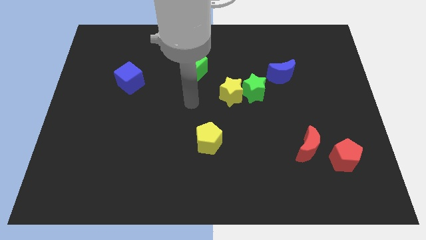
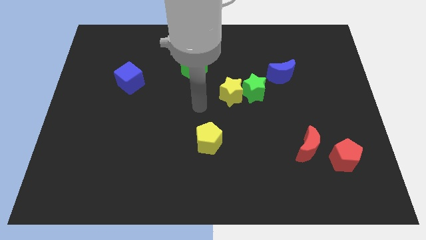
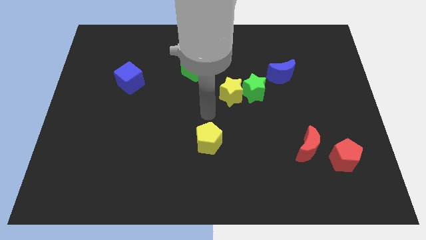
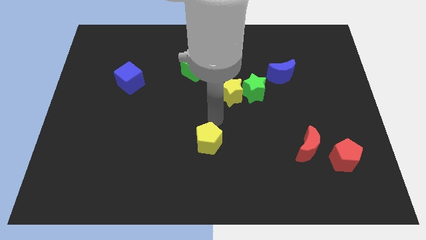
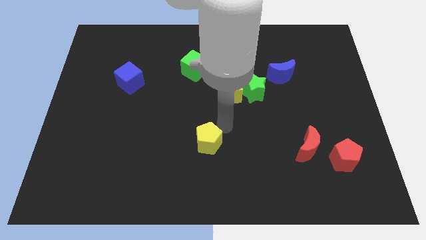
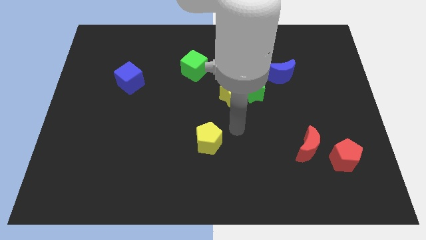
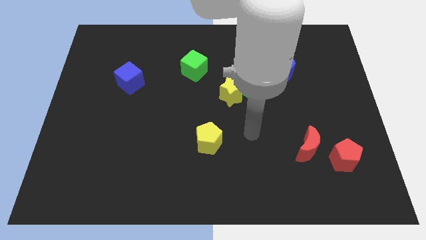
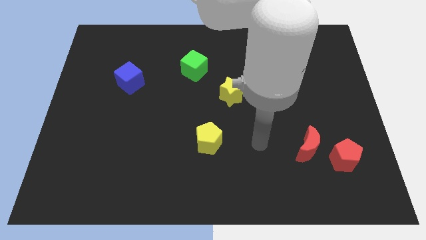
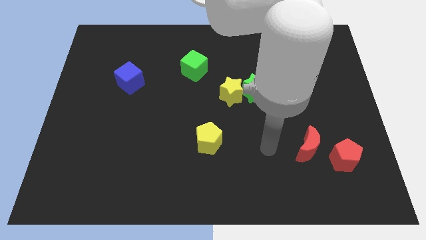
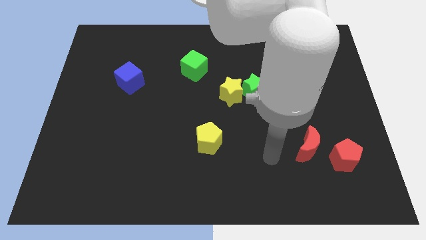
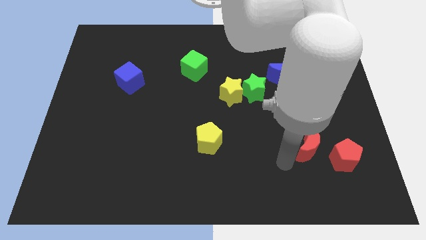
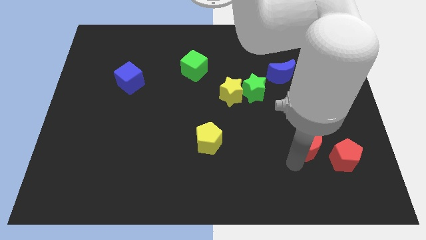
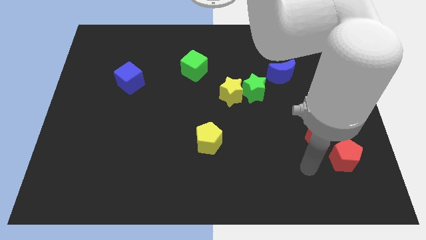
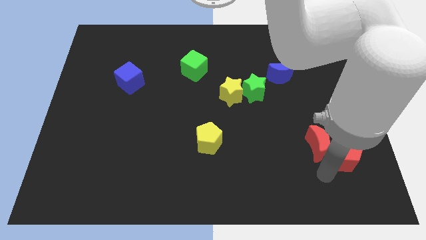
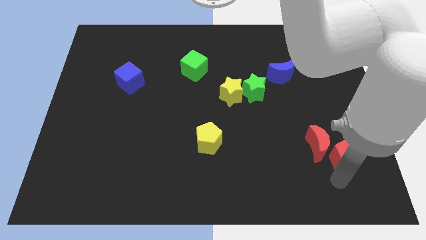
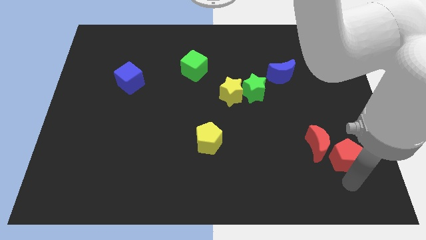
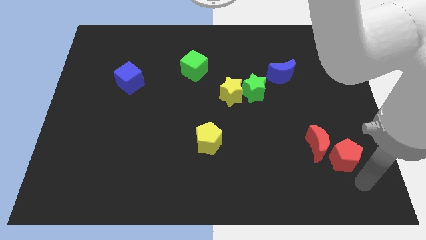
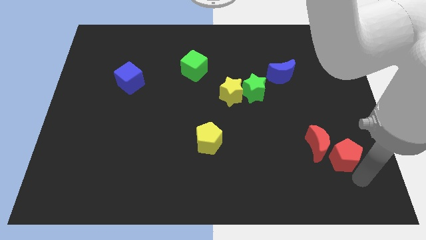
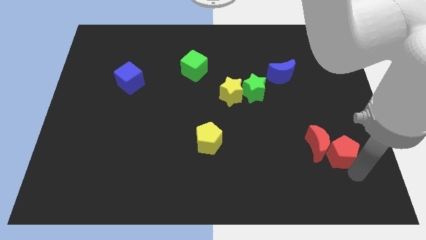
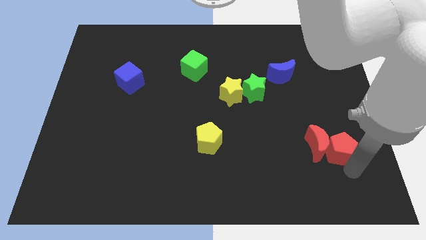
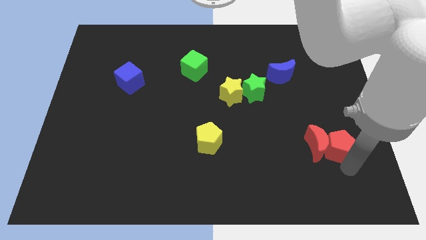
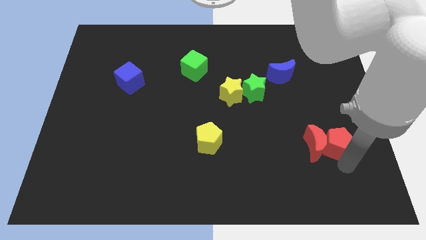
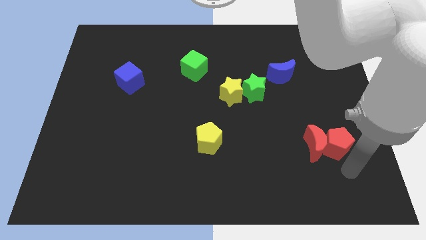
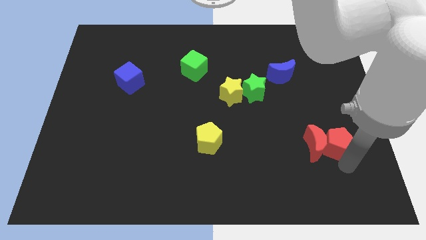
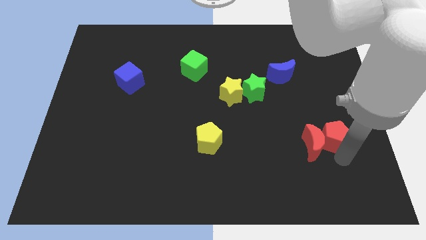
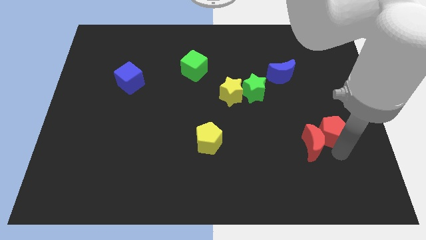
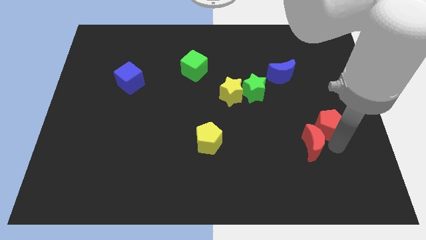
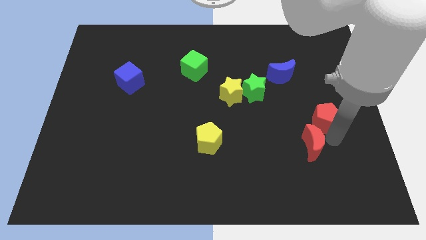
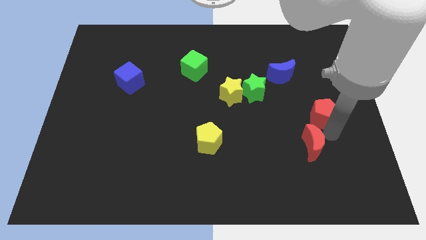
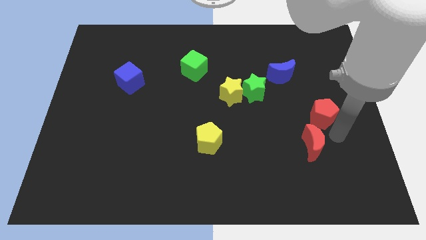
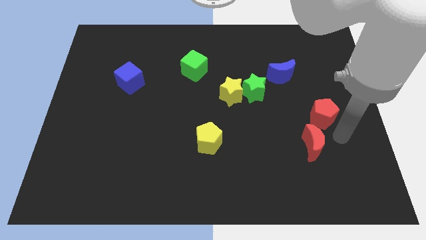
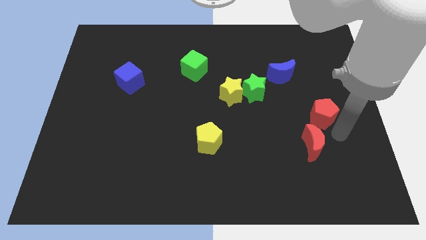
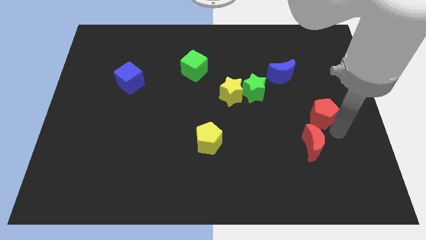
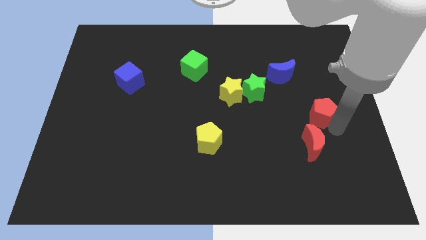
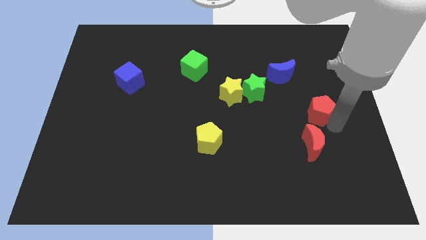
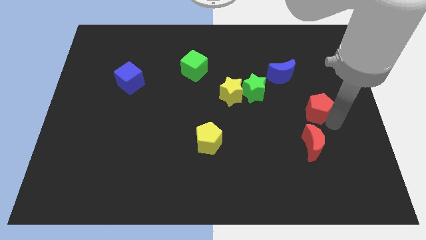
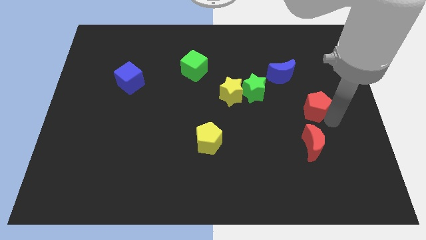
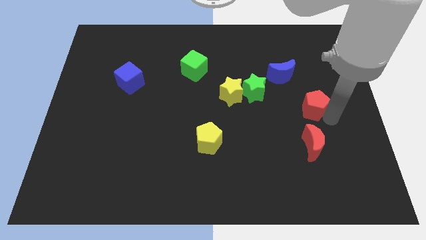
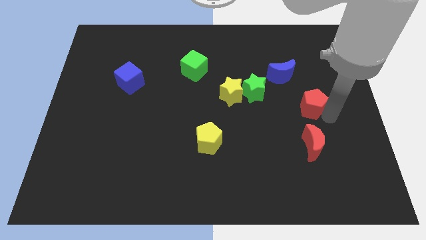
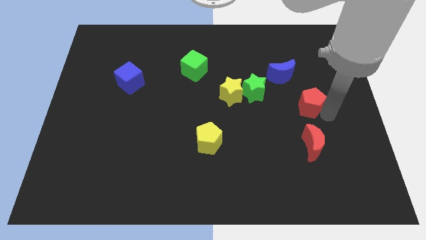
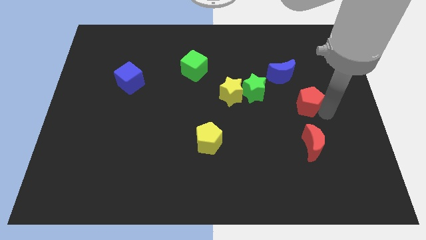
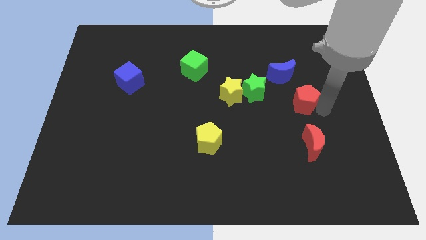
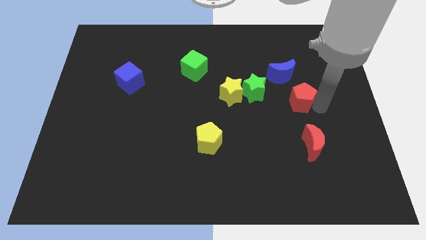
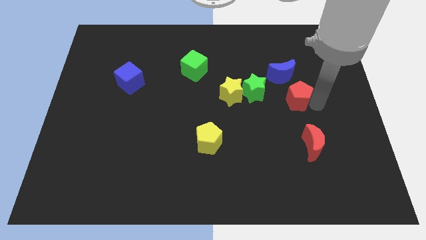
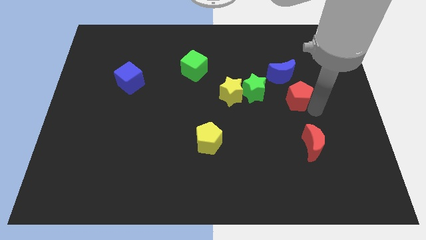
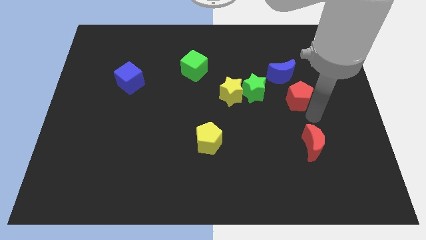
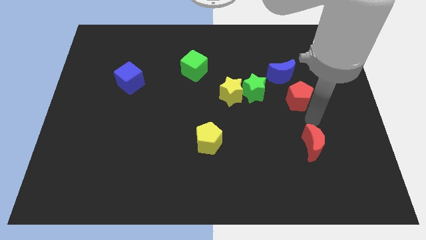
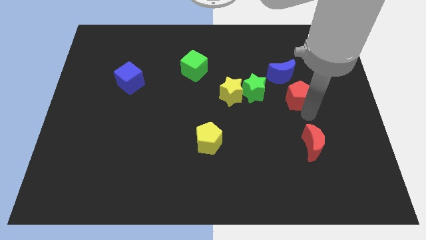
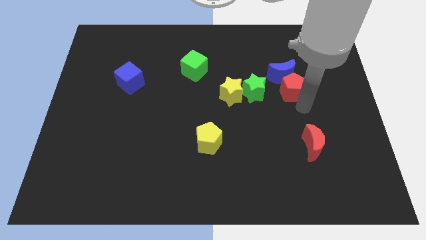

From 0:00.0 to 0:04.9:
put the red pentagon to the blue moon

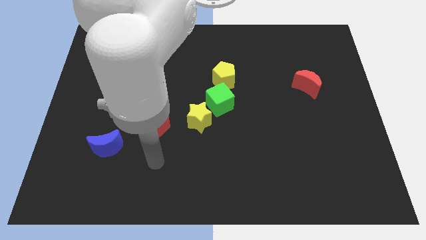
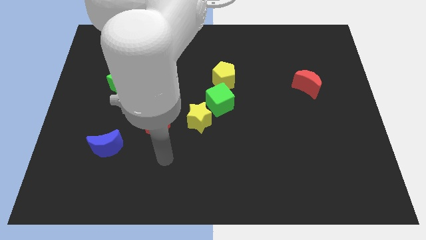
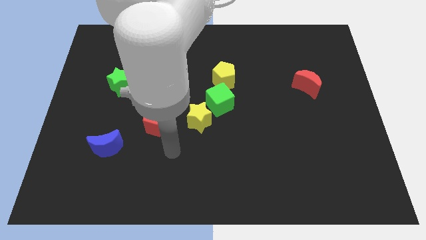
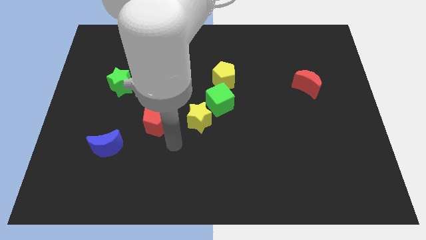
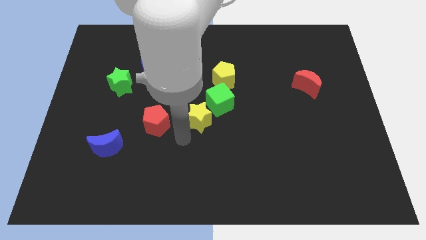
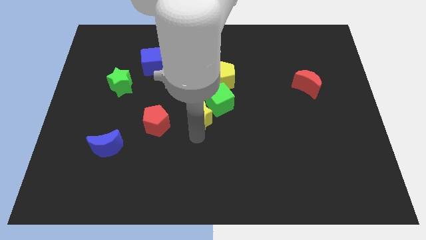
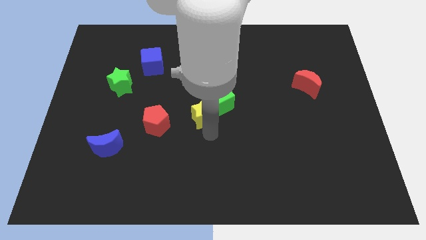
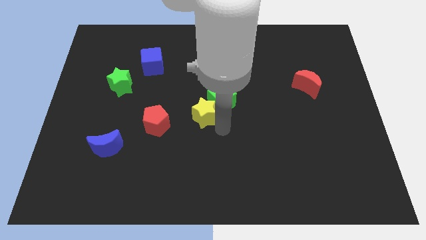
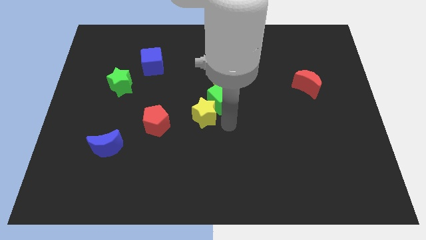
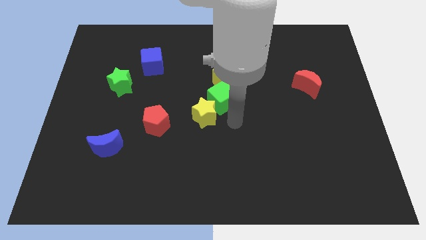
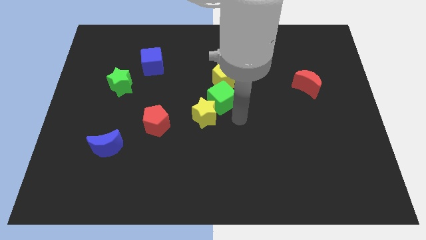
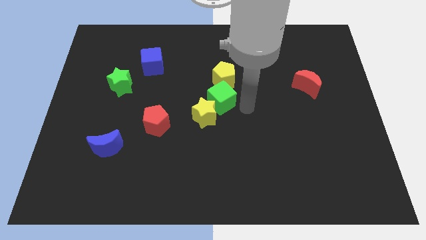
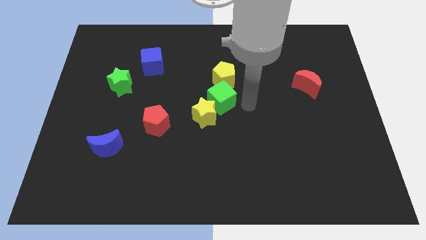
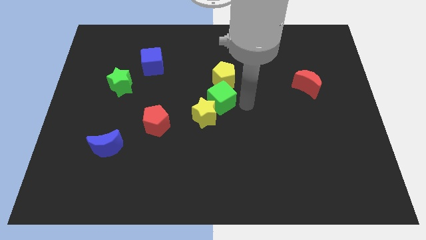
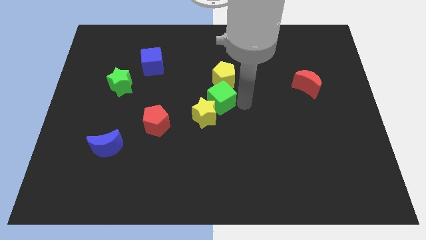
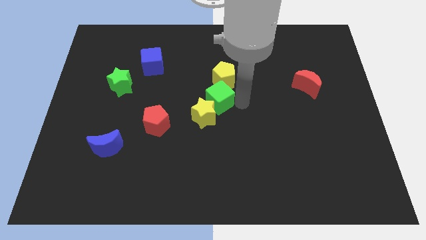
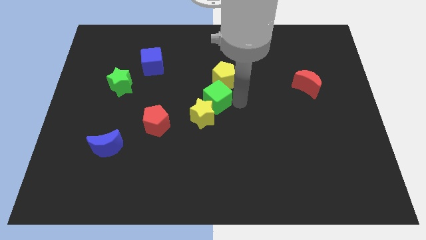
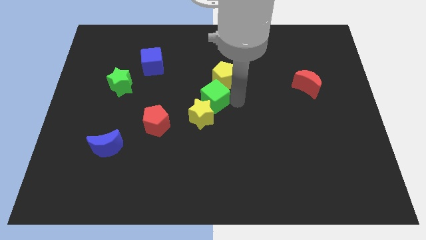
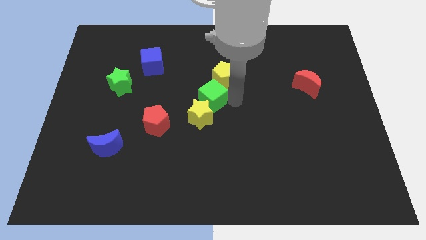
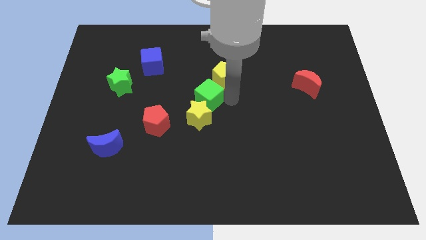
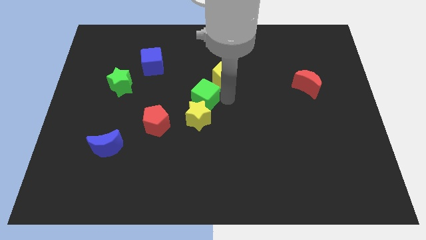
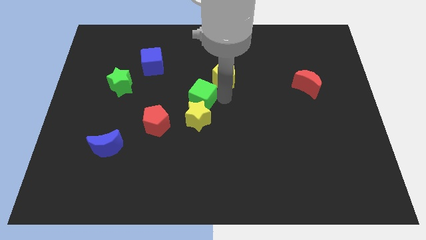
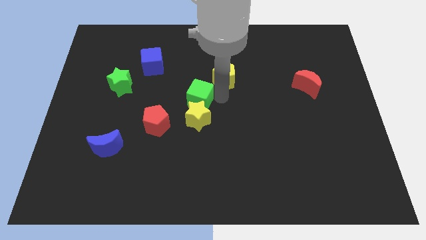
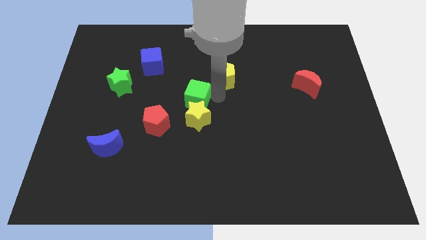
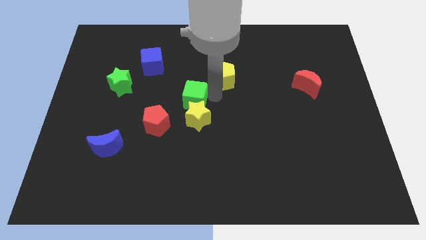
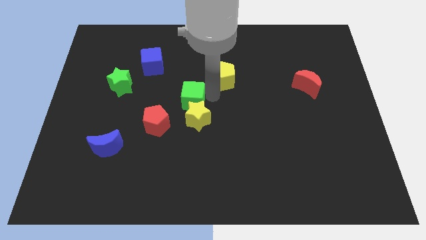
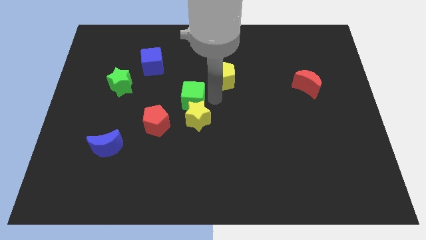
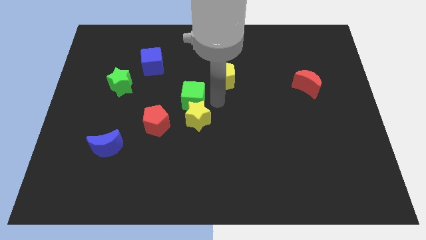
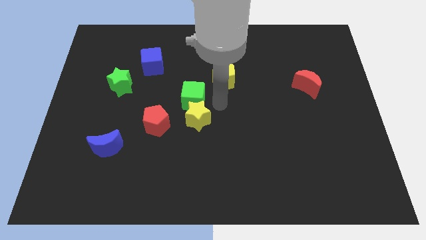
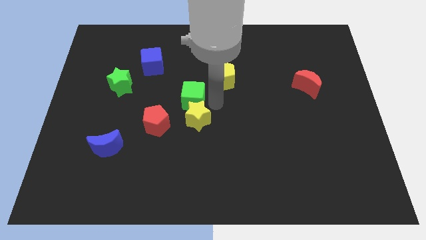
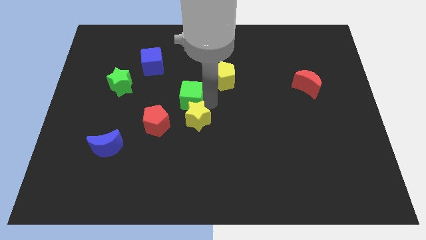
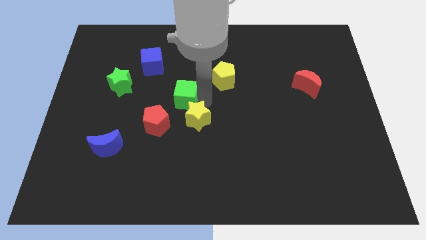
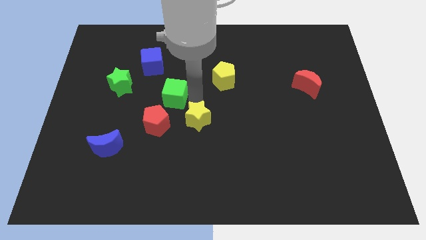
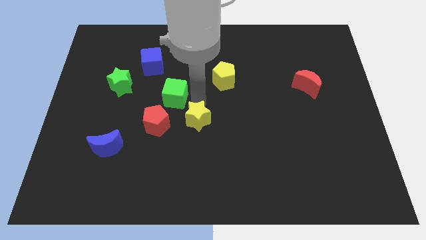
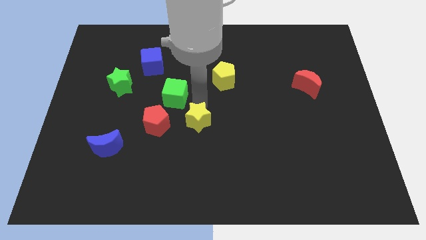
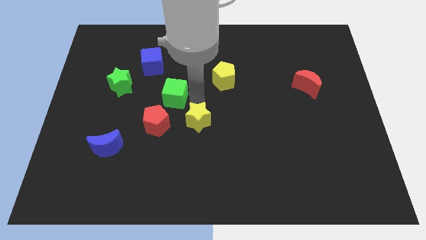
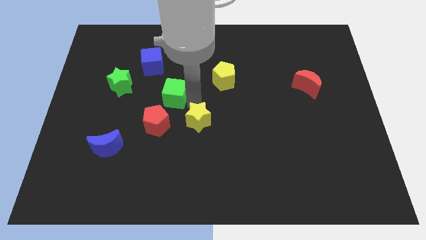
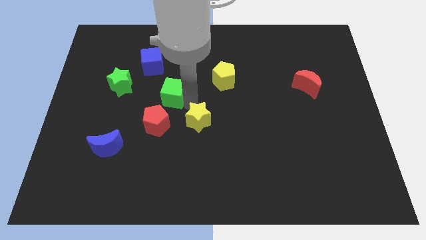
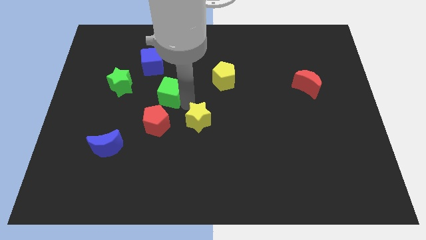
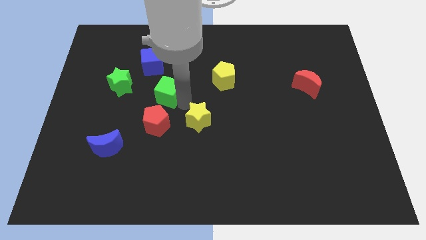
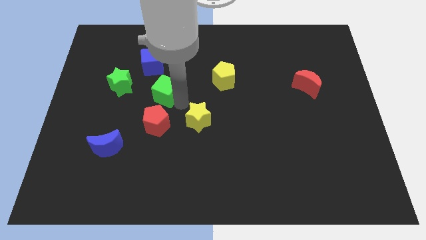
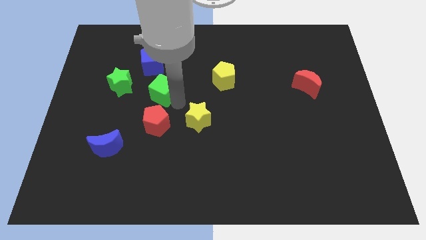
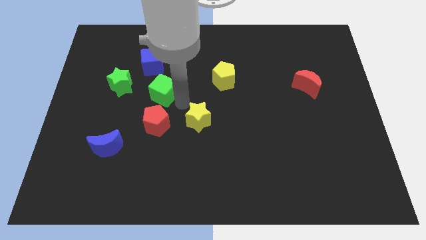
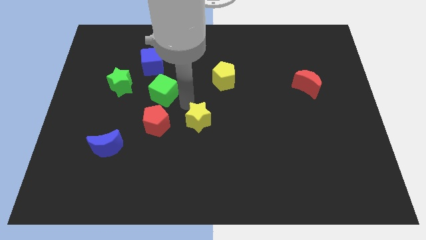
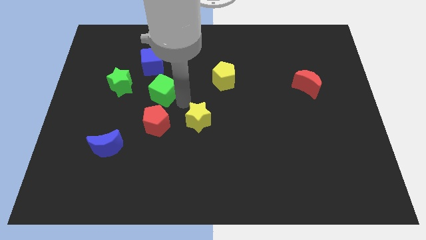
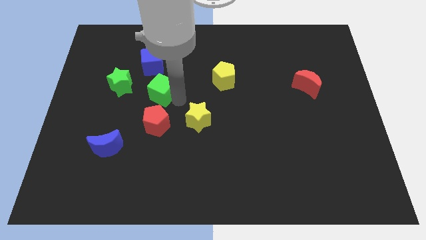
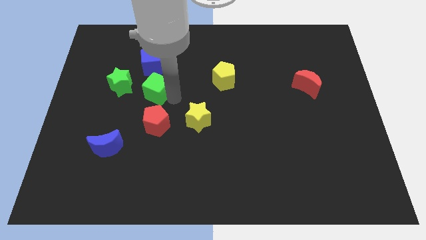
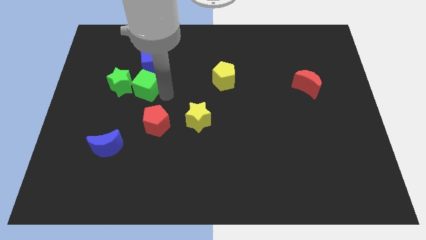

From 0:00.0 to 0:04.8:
push the green cube to the green star
